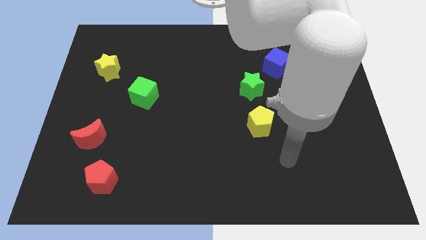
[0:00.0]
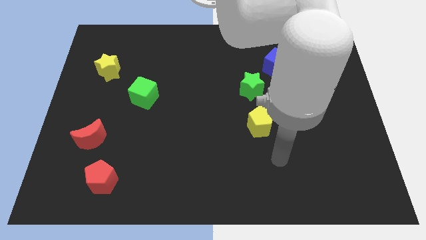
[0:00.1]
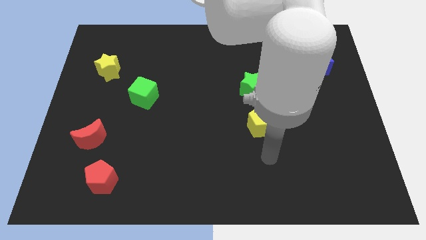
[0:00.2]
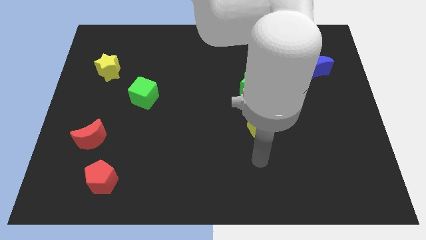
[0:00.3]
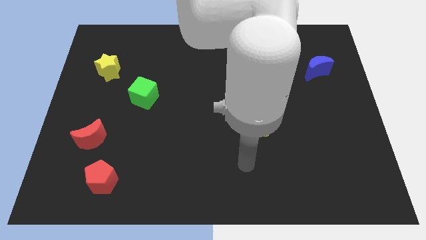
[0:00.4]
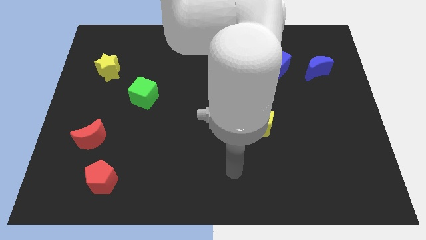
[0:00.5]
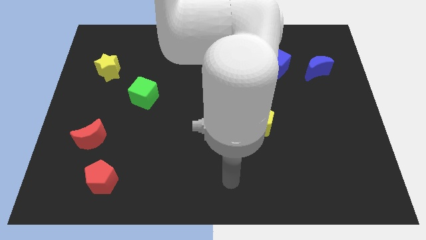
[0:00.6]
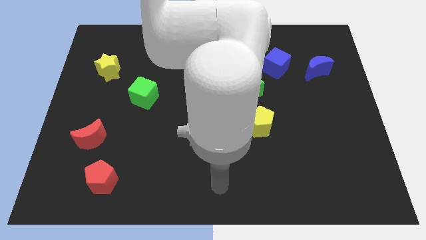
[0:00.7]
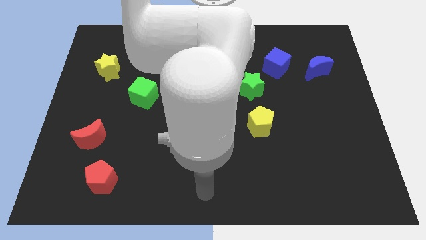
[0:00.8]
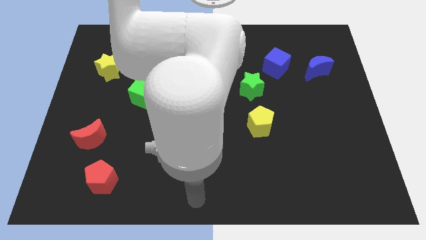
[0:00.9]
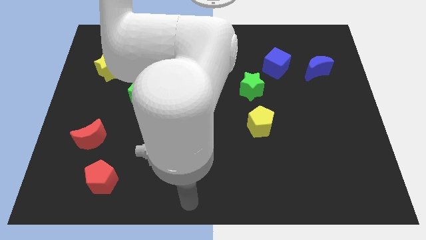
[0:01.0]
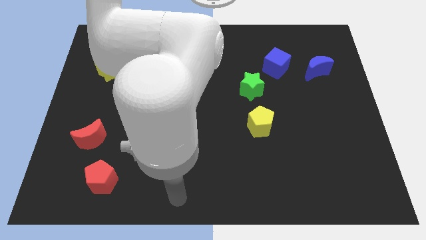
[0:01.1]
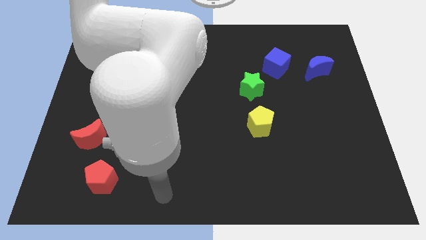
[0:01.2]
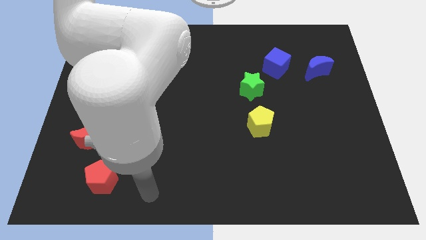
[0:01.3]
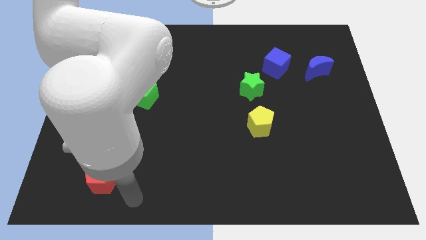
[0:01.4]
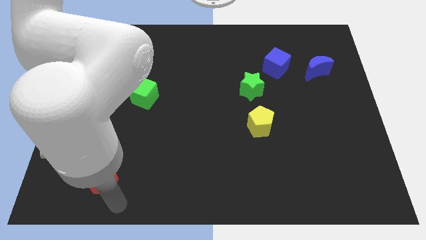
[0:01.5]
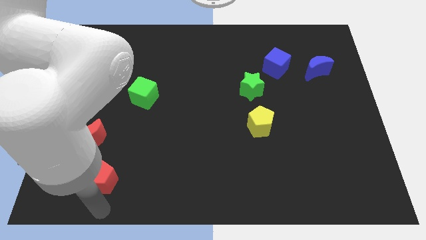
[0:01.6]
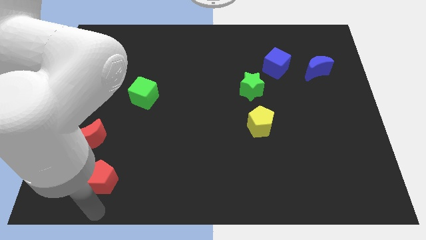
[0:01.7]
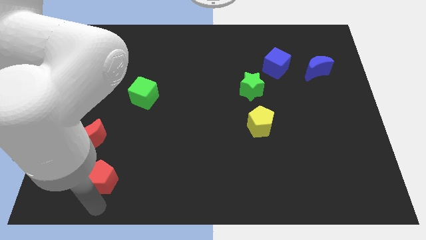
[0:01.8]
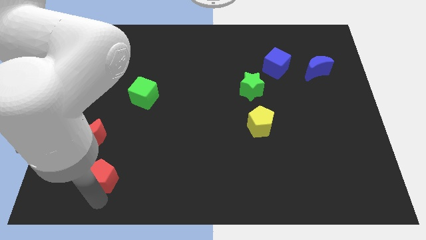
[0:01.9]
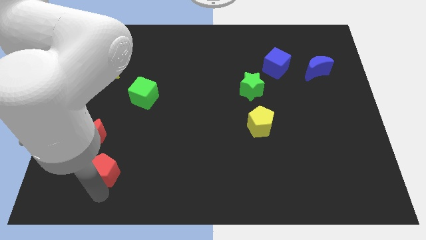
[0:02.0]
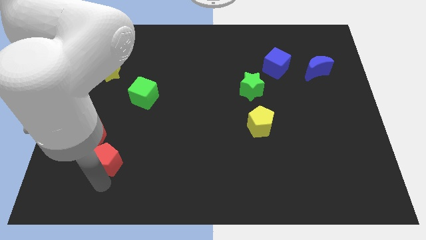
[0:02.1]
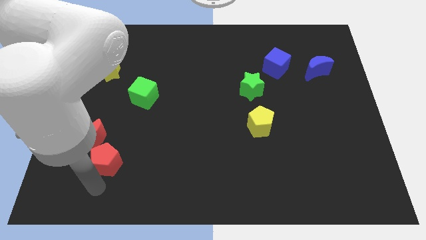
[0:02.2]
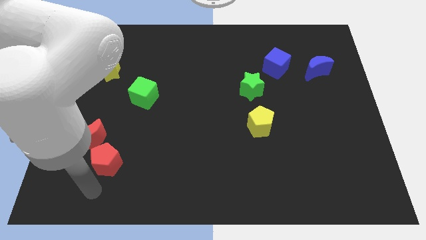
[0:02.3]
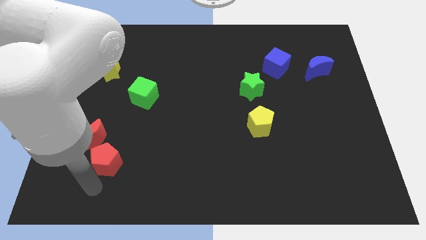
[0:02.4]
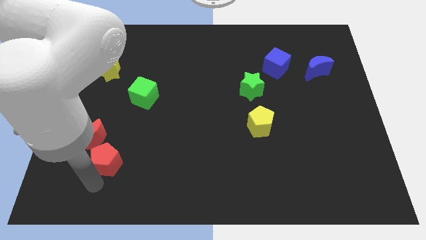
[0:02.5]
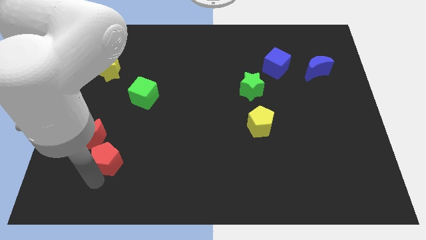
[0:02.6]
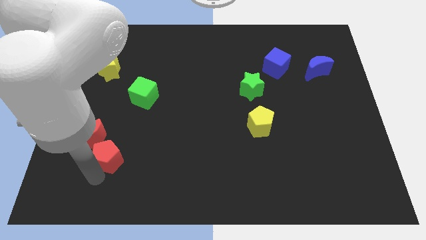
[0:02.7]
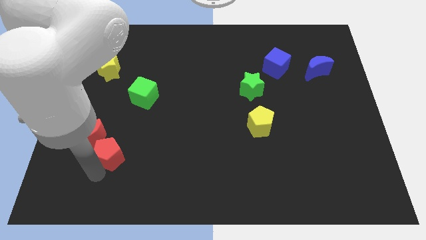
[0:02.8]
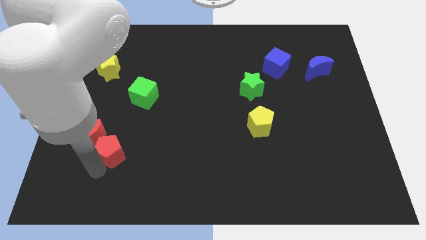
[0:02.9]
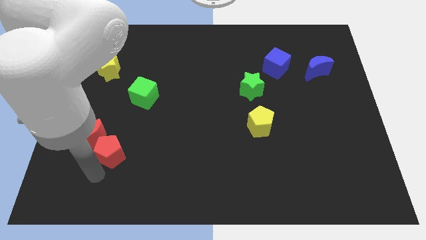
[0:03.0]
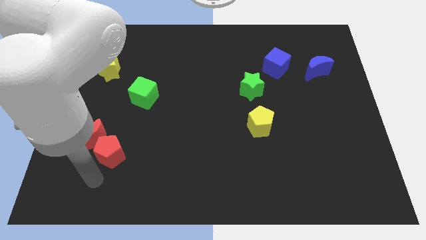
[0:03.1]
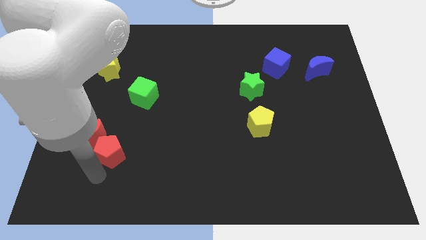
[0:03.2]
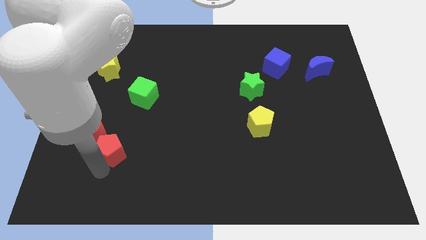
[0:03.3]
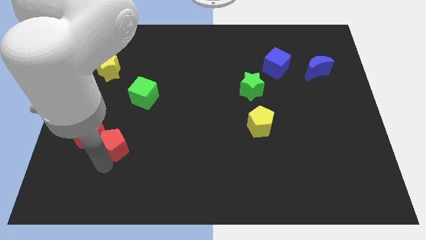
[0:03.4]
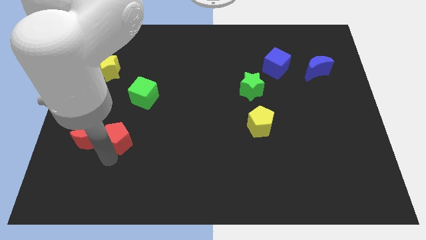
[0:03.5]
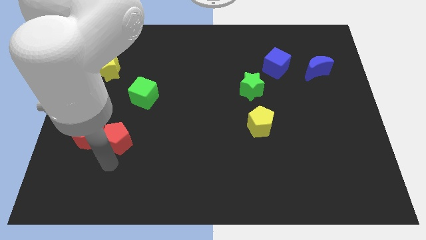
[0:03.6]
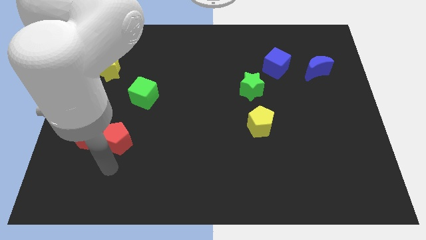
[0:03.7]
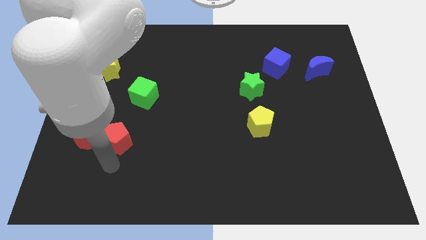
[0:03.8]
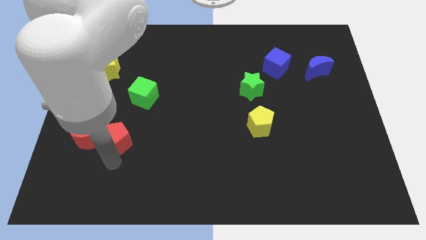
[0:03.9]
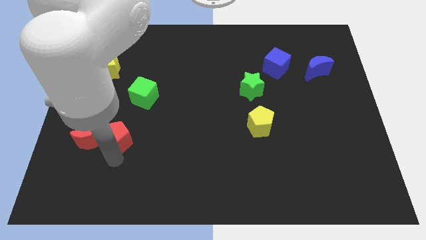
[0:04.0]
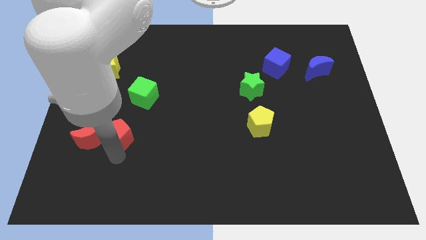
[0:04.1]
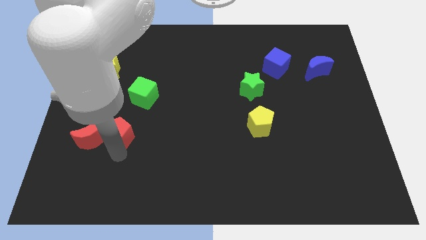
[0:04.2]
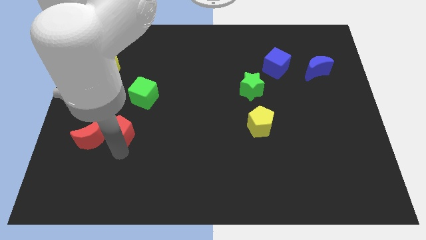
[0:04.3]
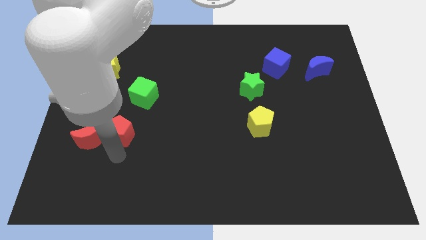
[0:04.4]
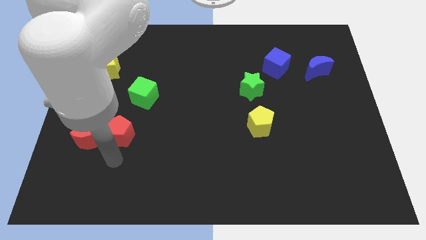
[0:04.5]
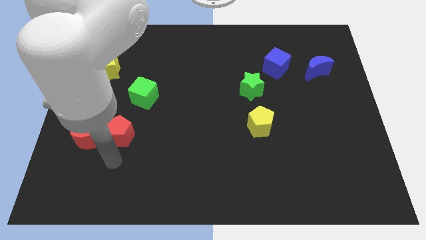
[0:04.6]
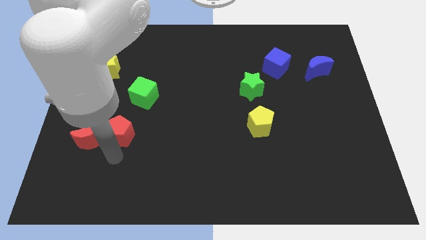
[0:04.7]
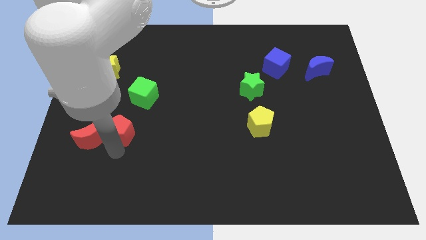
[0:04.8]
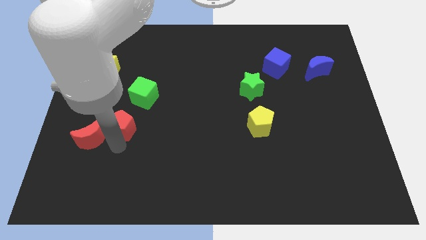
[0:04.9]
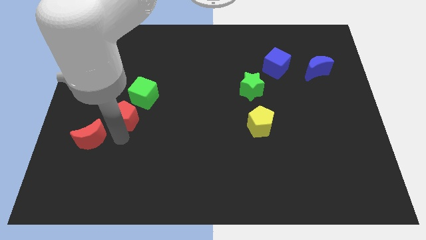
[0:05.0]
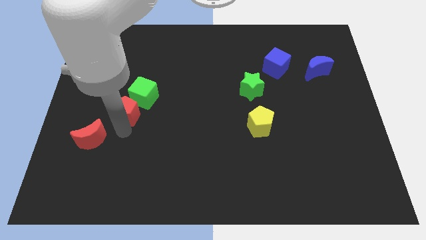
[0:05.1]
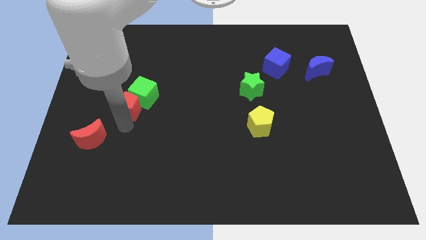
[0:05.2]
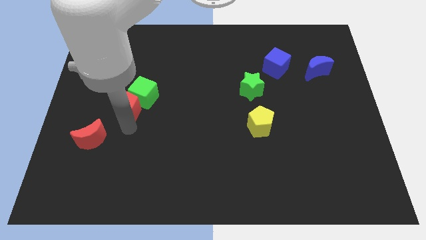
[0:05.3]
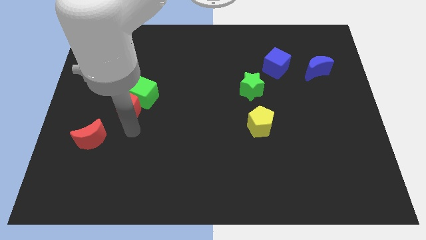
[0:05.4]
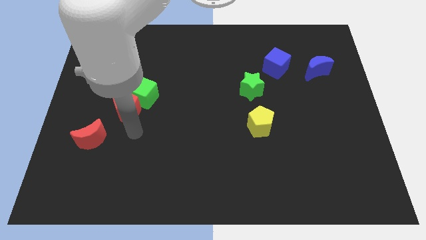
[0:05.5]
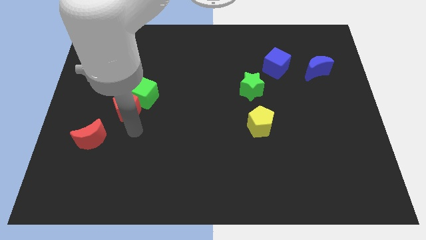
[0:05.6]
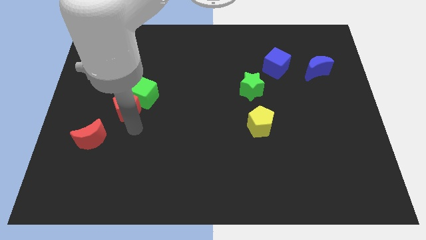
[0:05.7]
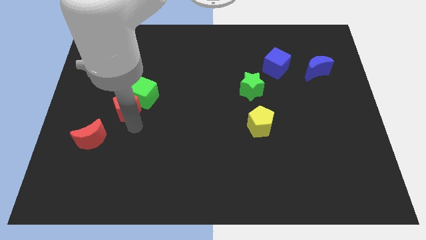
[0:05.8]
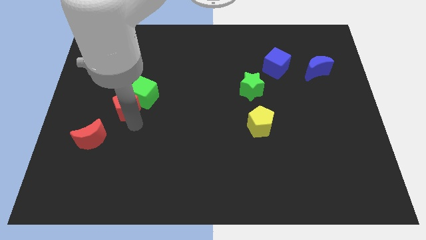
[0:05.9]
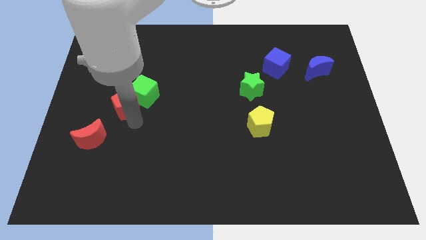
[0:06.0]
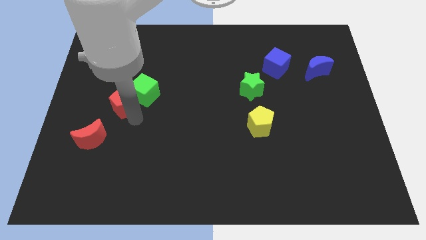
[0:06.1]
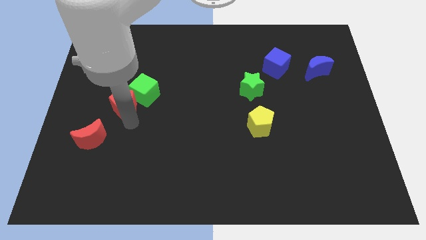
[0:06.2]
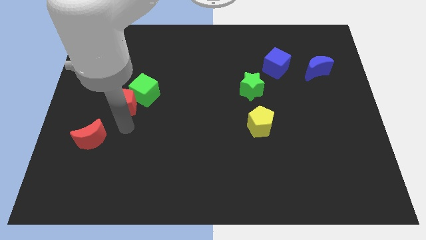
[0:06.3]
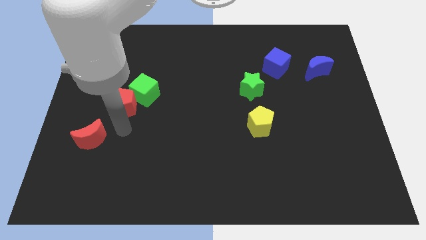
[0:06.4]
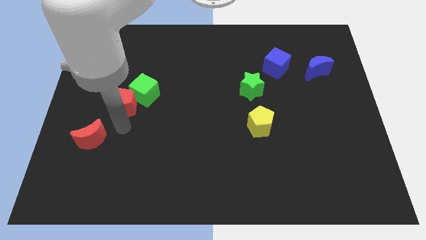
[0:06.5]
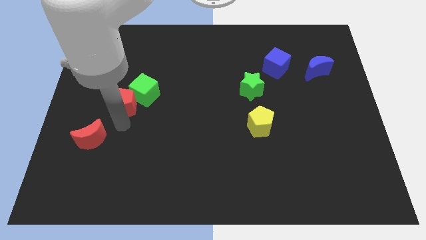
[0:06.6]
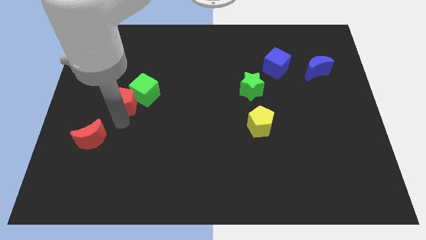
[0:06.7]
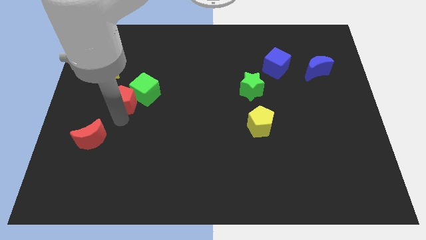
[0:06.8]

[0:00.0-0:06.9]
move the red pentagon upwards

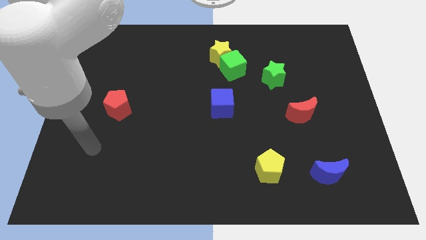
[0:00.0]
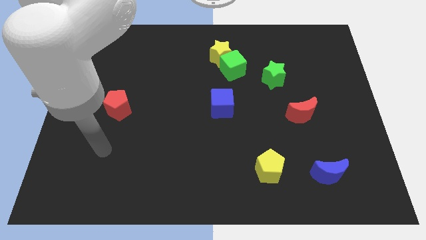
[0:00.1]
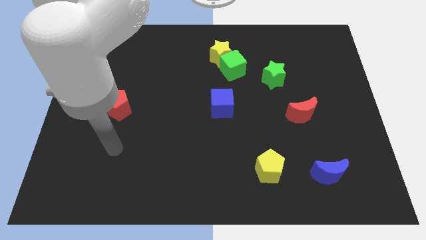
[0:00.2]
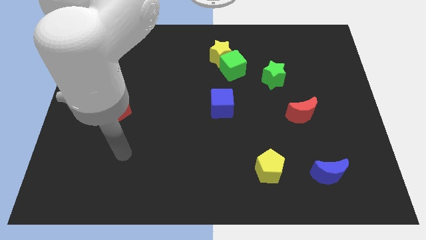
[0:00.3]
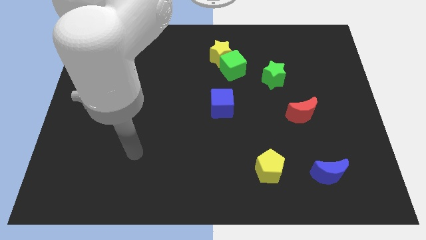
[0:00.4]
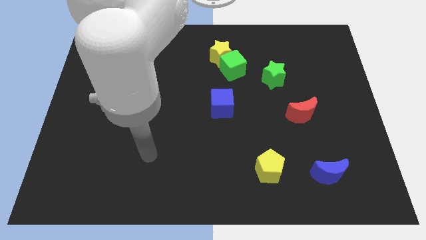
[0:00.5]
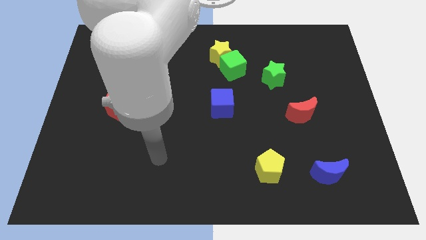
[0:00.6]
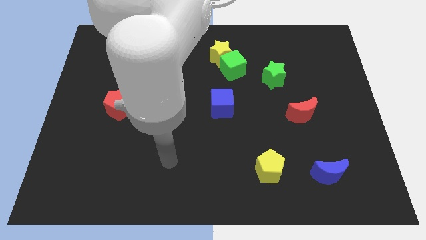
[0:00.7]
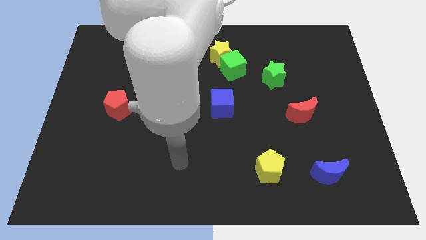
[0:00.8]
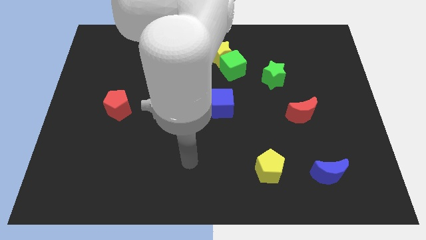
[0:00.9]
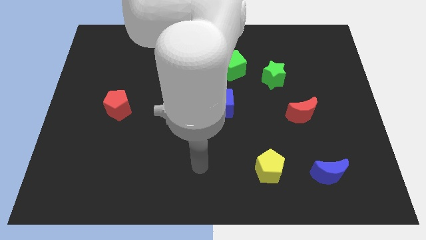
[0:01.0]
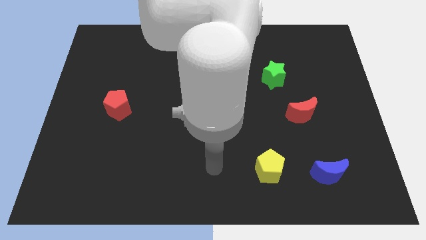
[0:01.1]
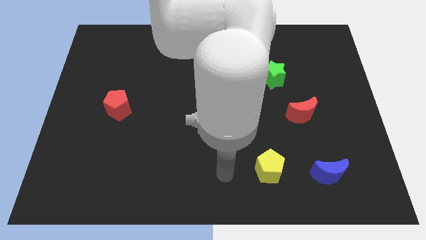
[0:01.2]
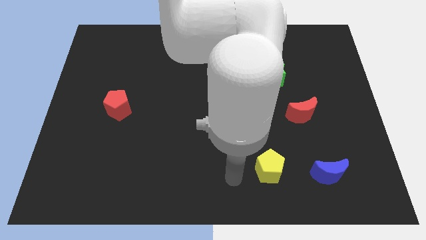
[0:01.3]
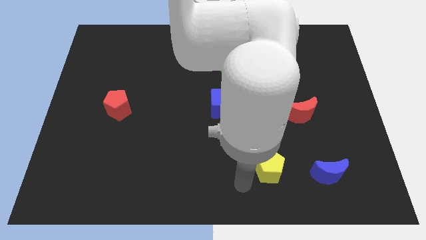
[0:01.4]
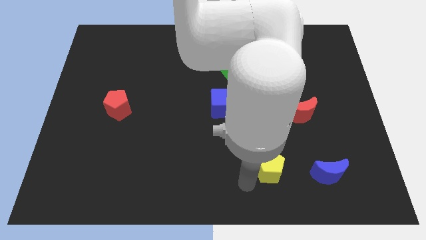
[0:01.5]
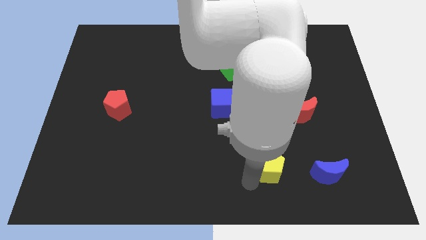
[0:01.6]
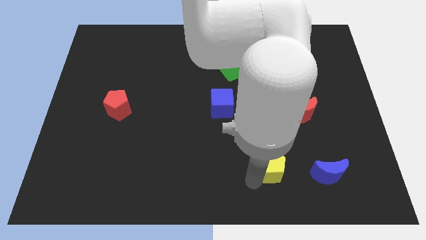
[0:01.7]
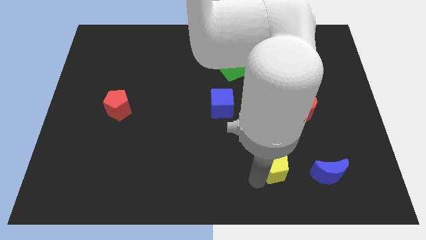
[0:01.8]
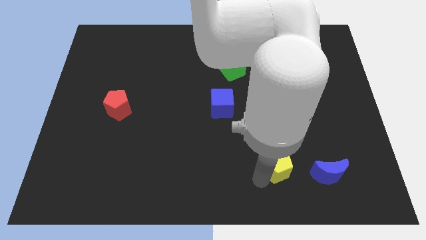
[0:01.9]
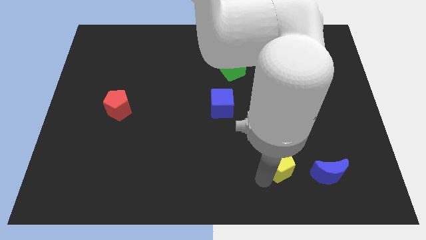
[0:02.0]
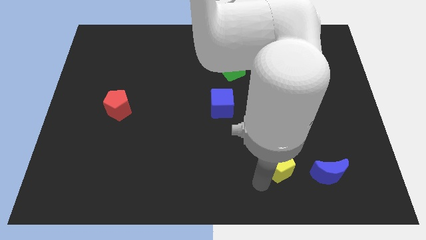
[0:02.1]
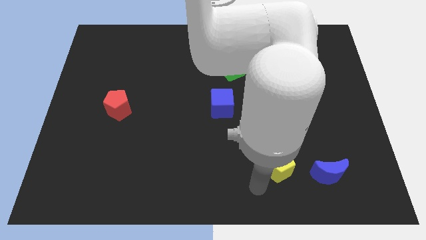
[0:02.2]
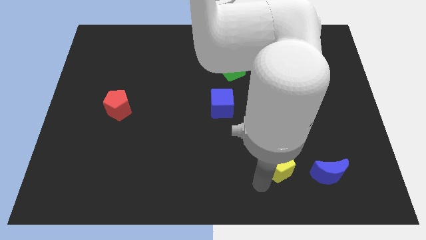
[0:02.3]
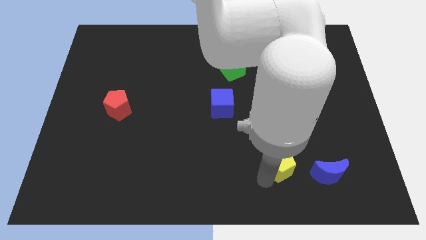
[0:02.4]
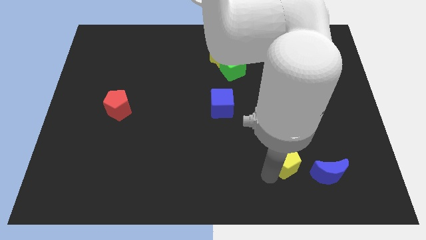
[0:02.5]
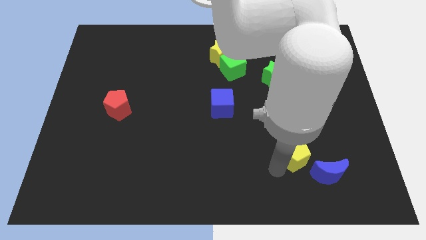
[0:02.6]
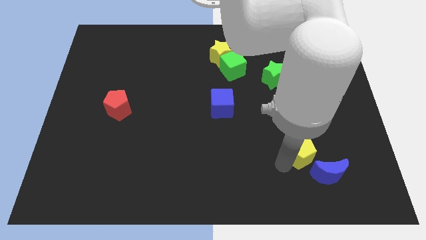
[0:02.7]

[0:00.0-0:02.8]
slightly move the yellow pentagon up and to the right
